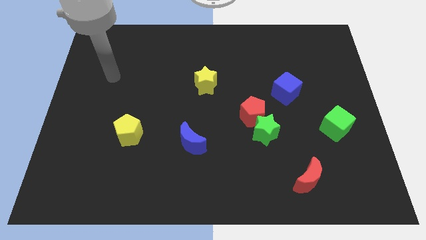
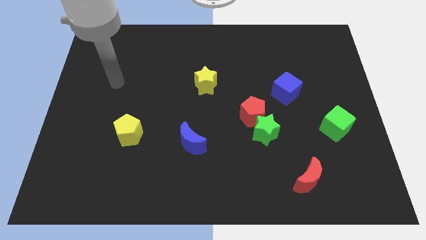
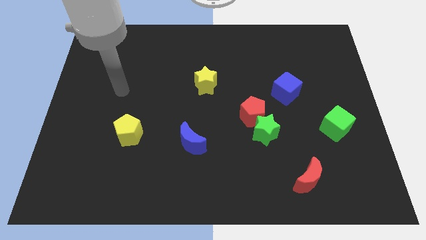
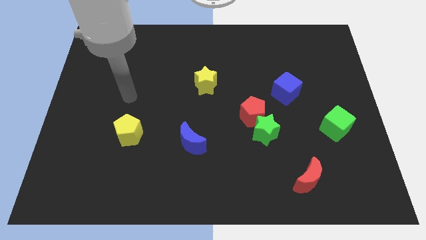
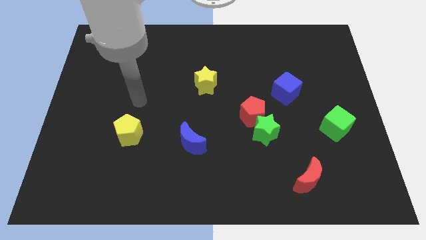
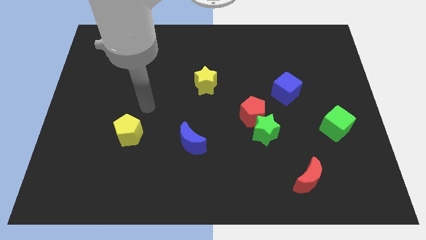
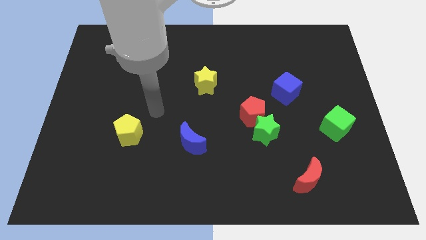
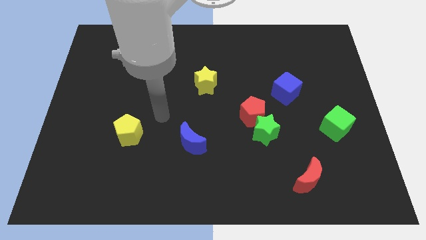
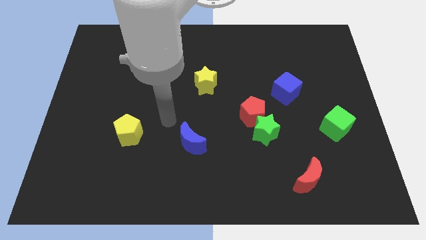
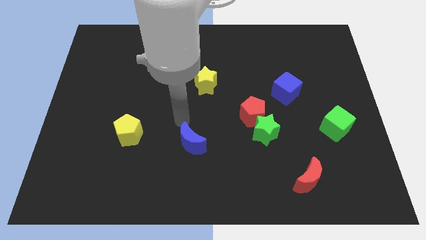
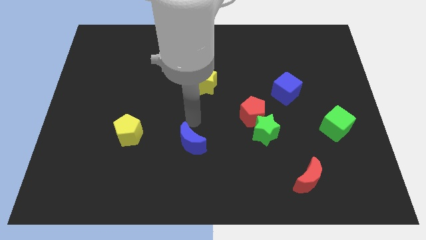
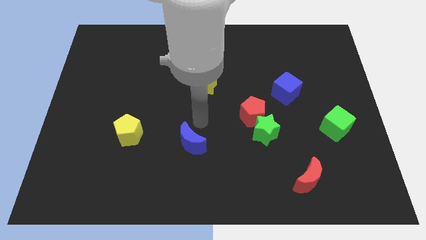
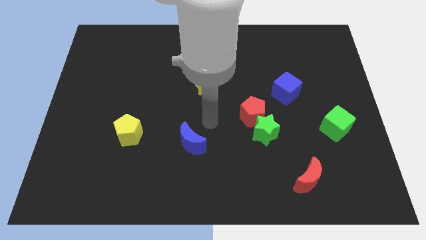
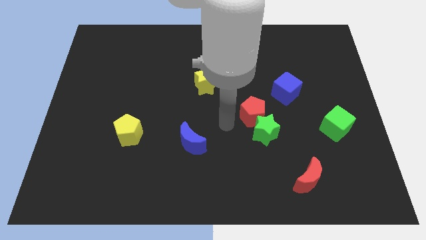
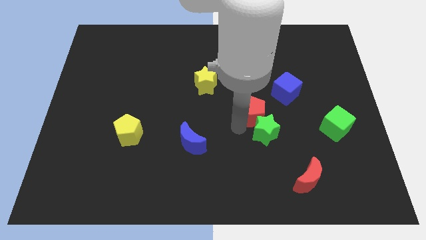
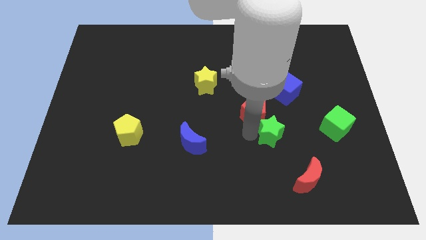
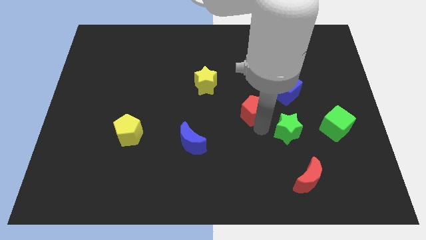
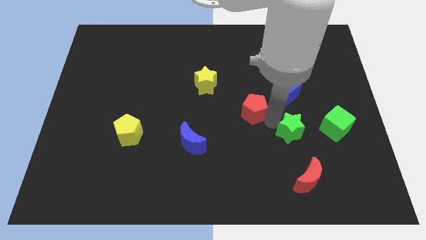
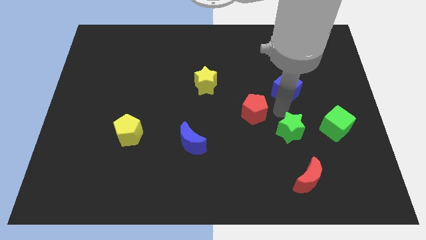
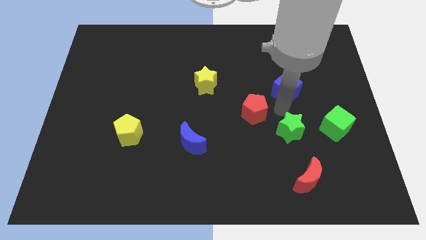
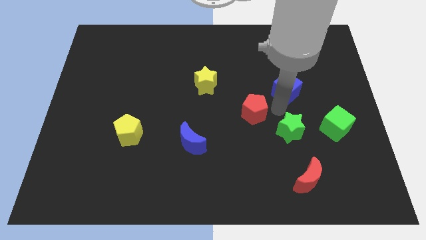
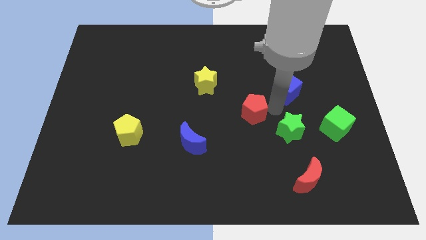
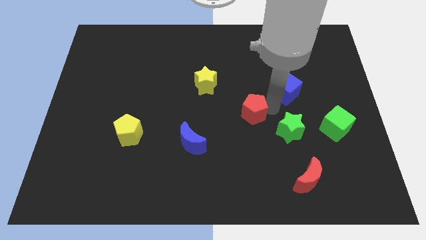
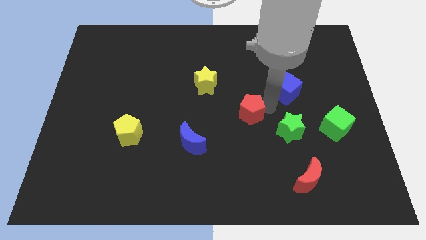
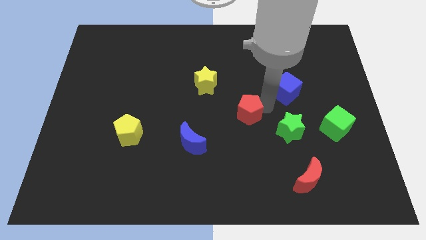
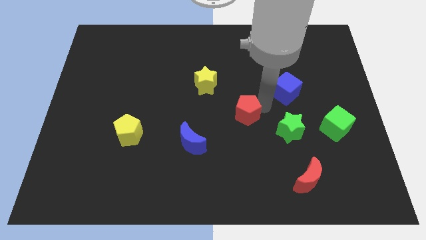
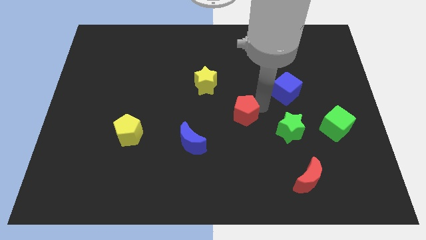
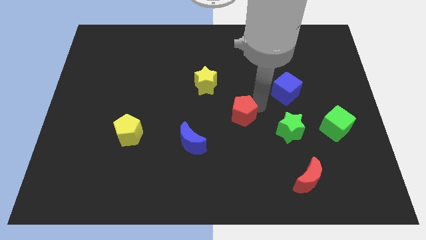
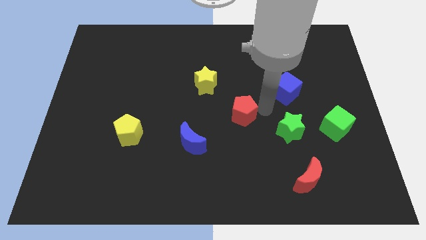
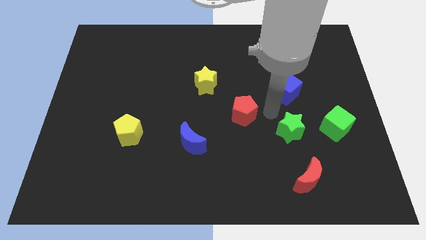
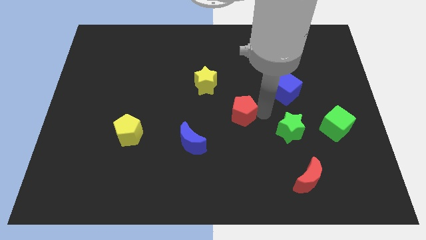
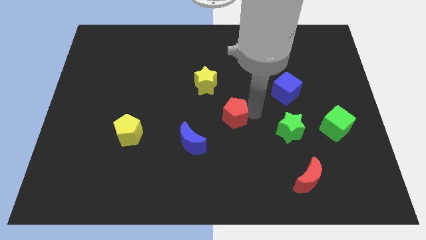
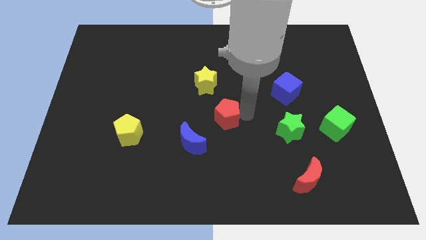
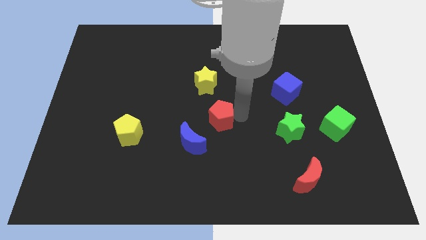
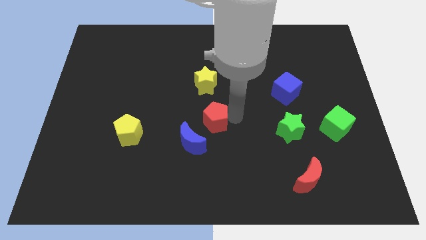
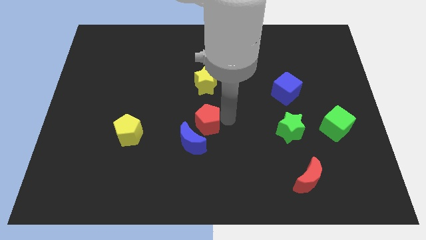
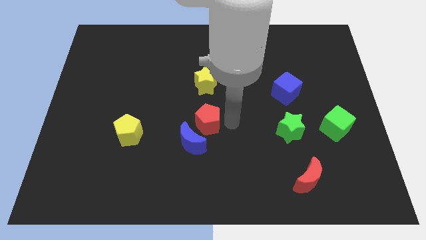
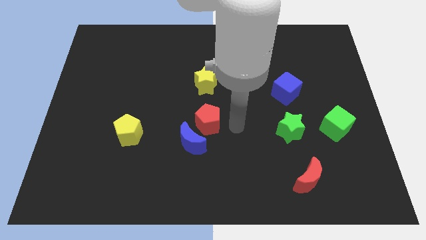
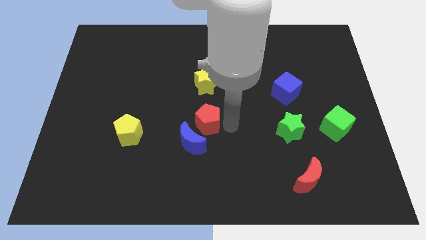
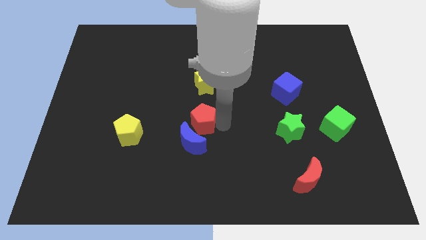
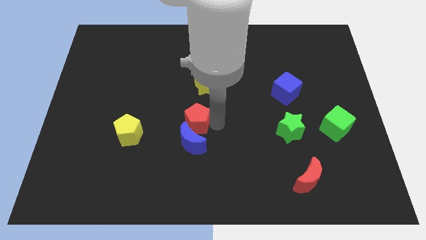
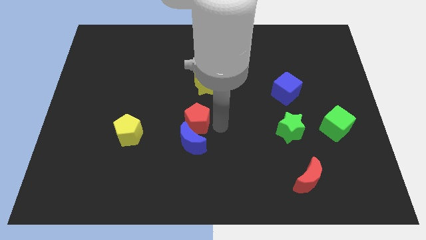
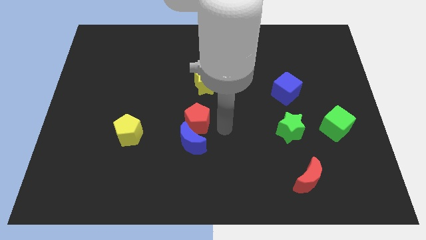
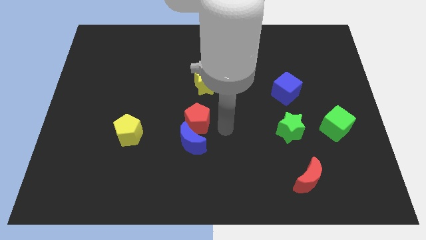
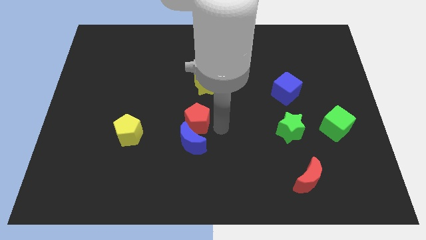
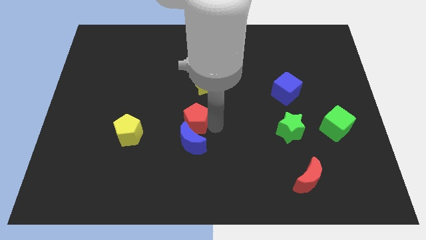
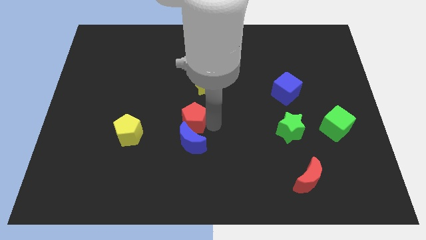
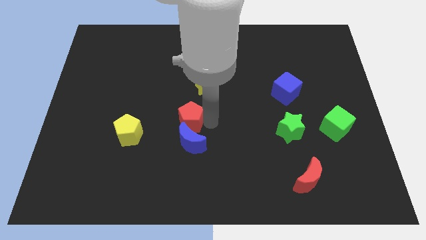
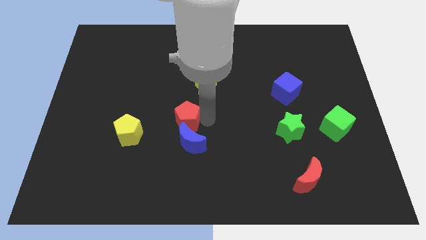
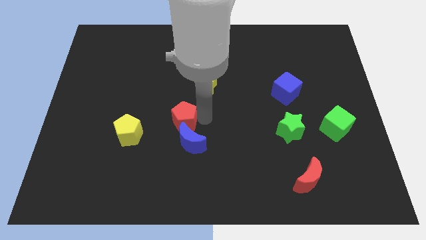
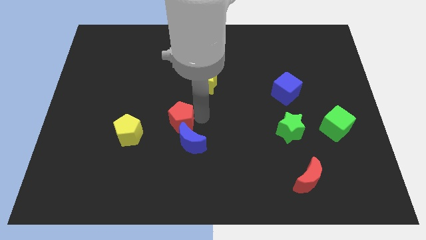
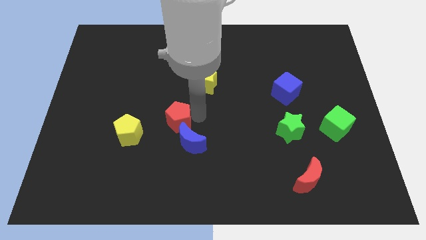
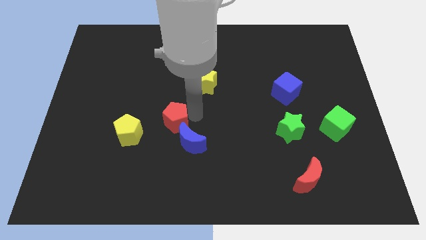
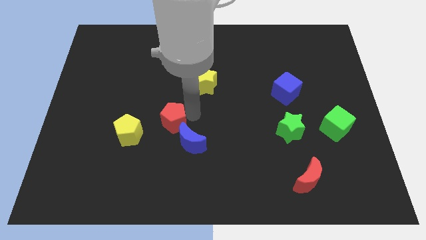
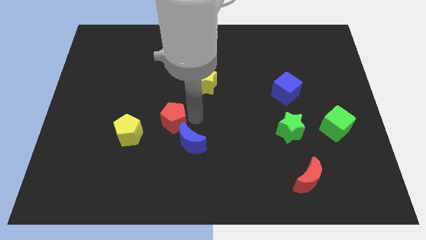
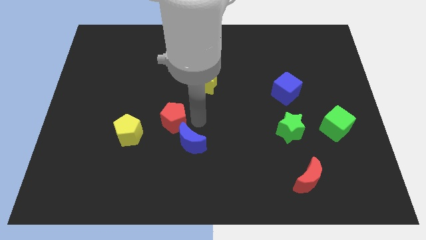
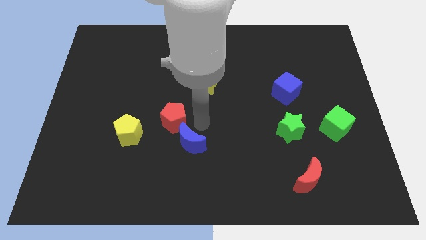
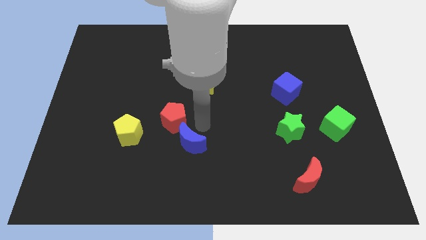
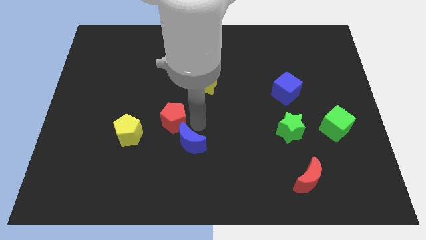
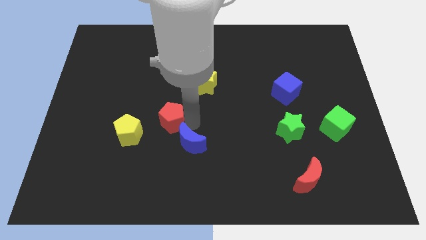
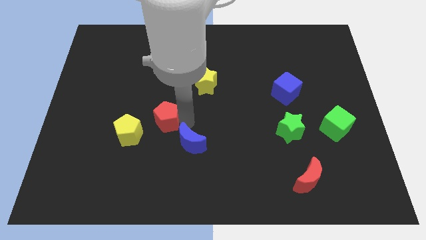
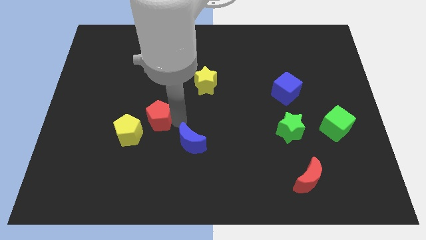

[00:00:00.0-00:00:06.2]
push the red pentagon left

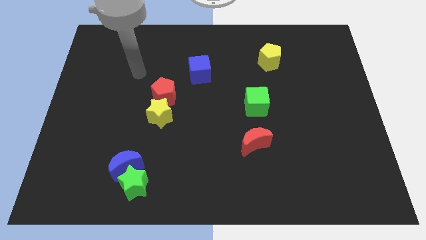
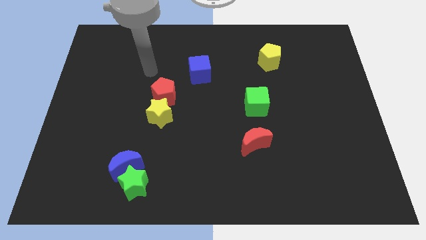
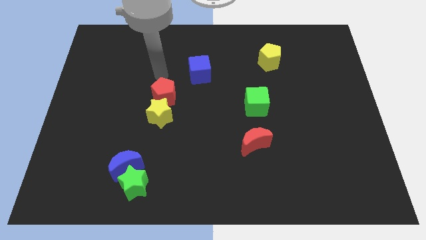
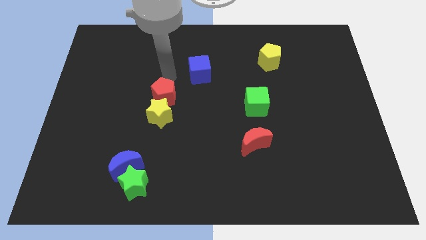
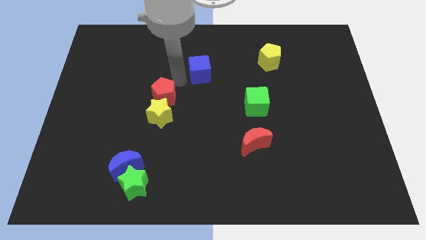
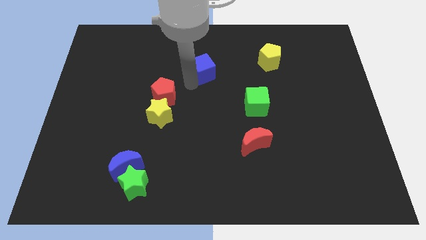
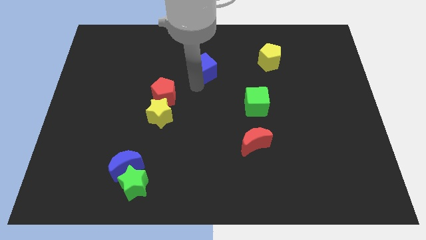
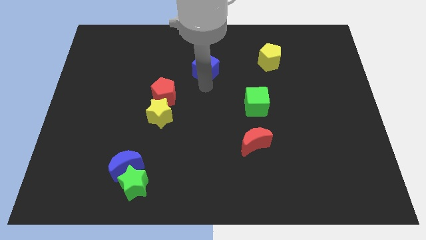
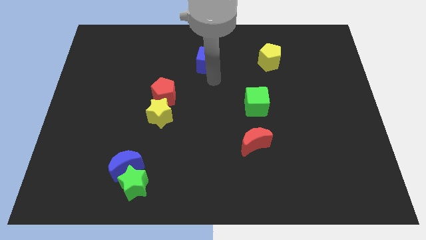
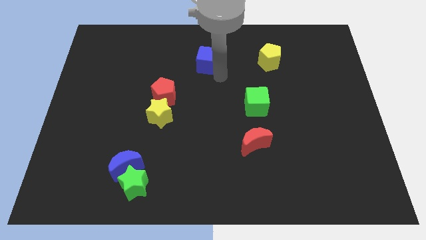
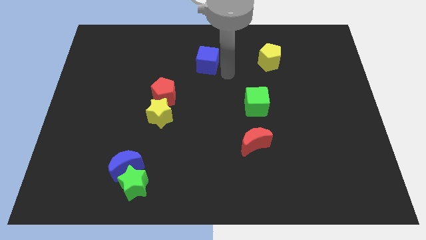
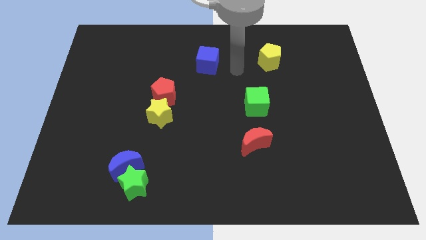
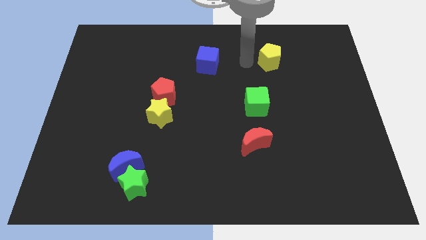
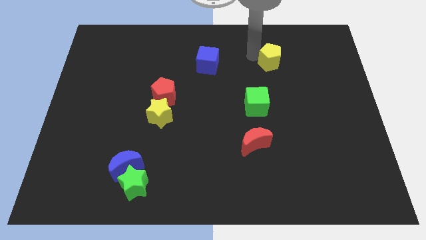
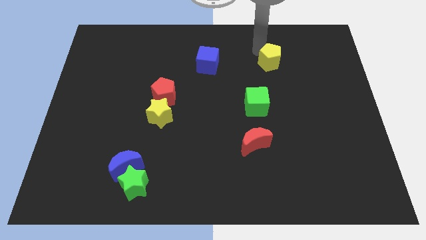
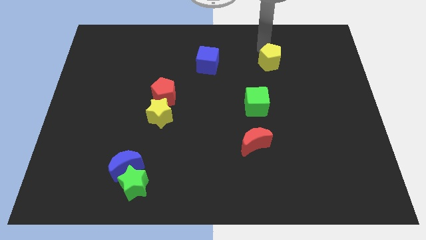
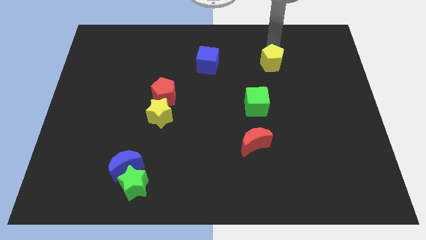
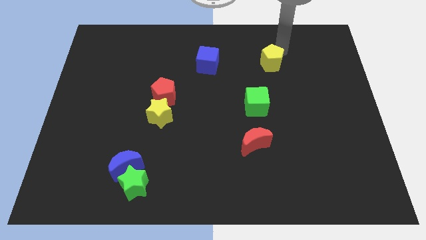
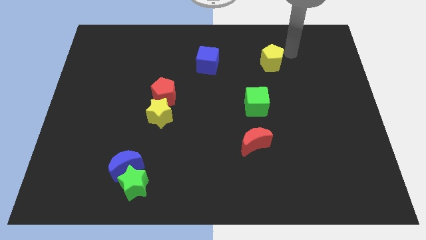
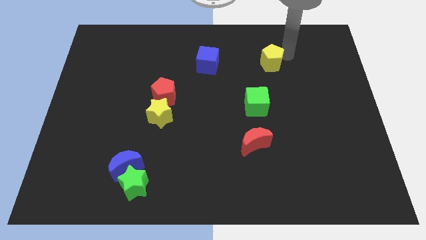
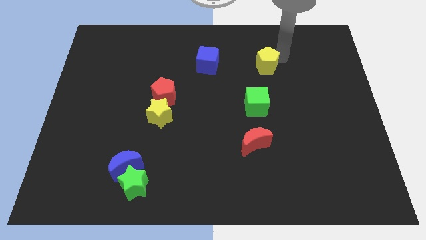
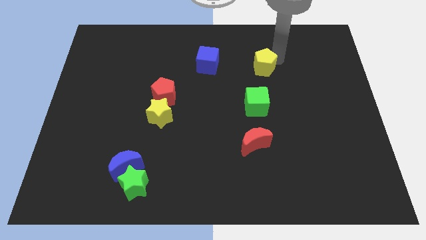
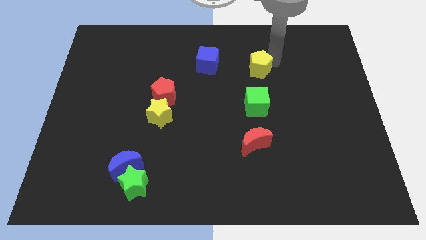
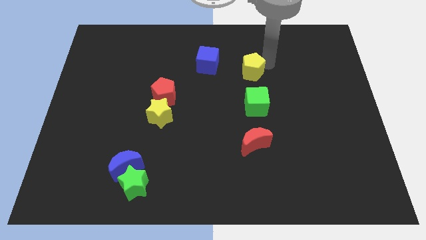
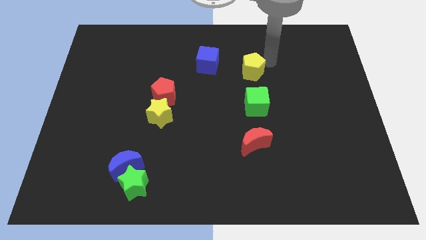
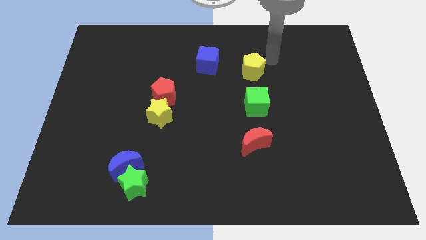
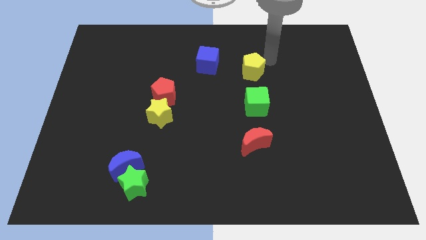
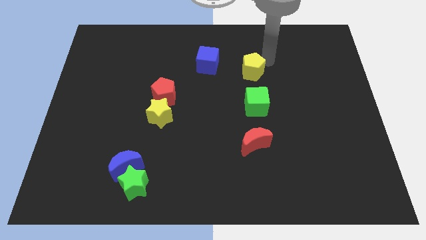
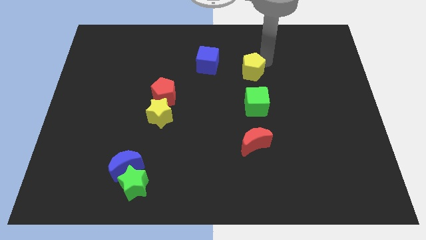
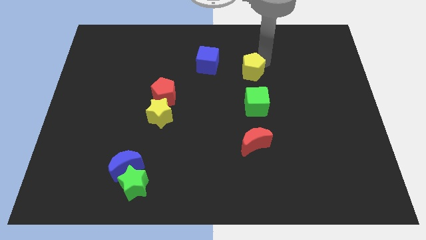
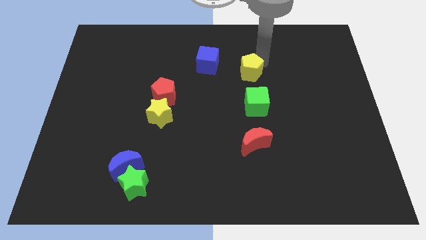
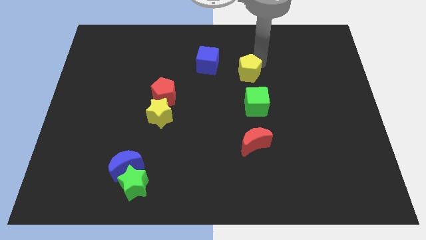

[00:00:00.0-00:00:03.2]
push the yellow pentagon down and to the left slightly
